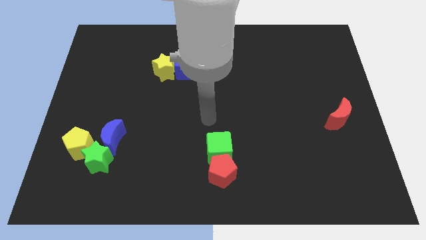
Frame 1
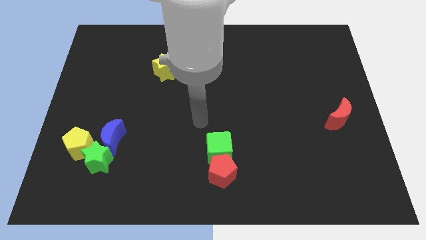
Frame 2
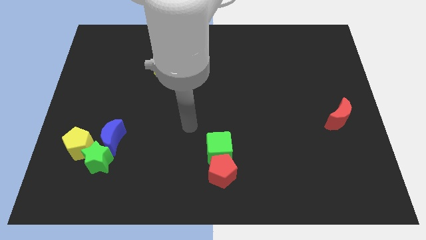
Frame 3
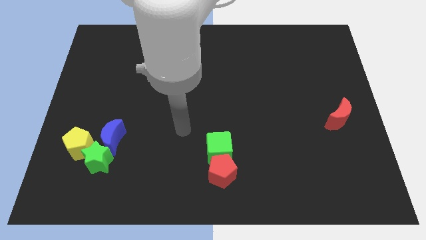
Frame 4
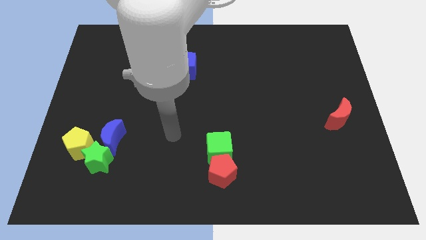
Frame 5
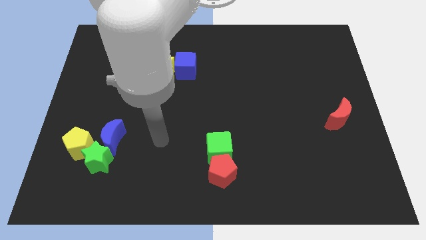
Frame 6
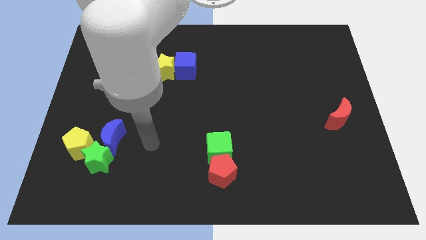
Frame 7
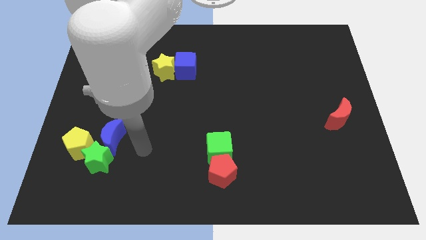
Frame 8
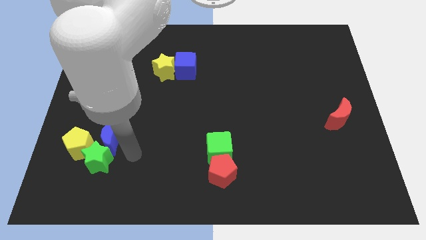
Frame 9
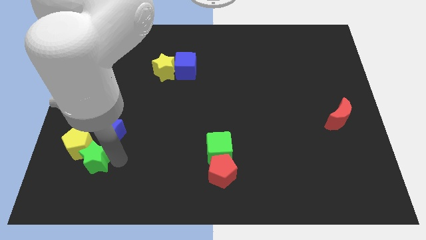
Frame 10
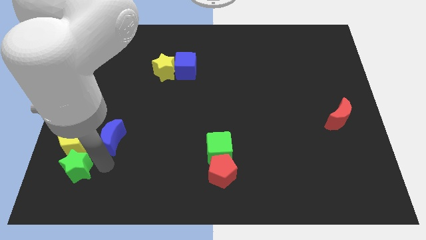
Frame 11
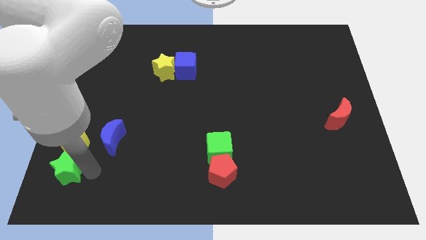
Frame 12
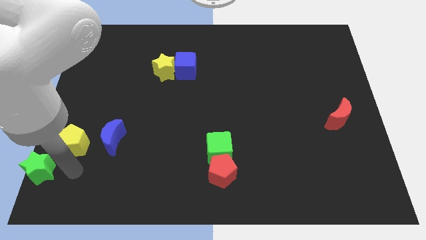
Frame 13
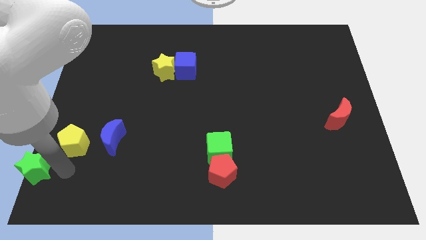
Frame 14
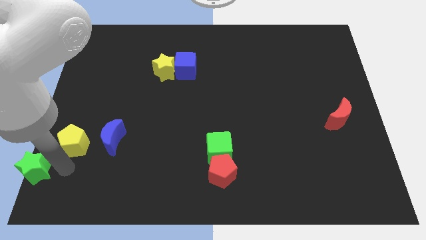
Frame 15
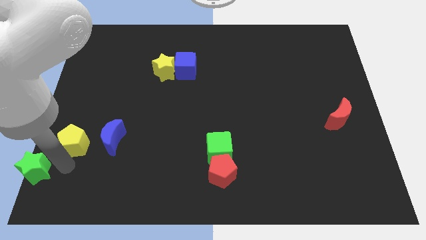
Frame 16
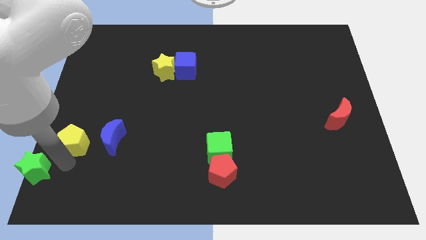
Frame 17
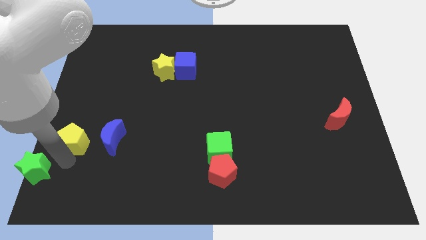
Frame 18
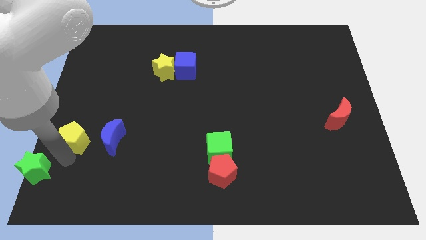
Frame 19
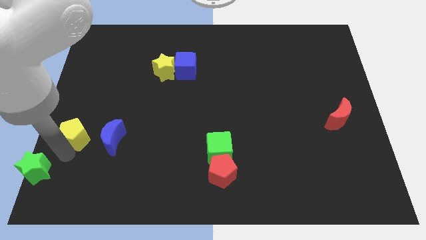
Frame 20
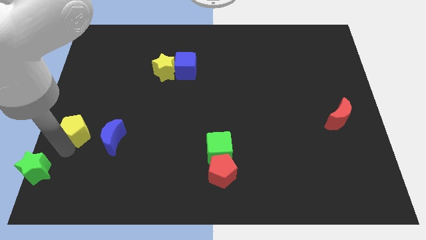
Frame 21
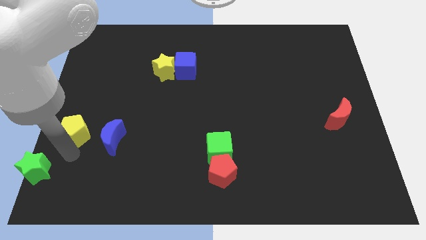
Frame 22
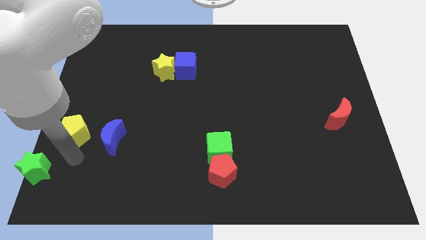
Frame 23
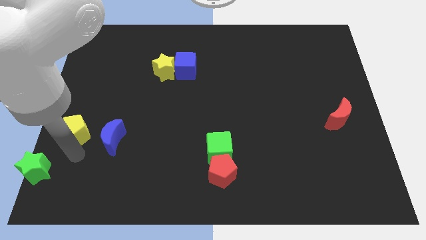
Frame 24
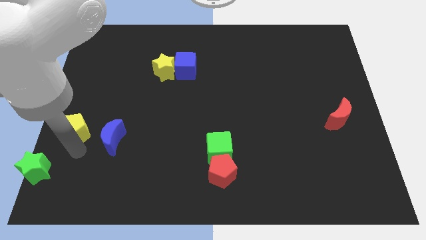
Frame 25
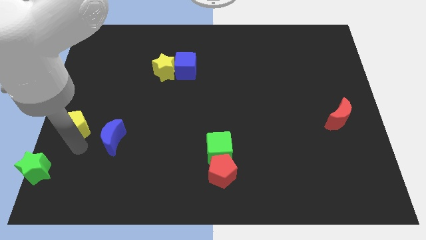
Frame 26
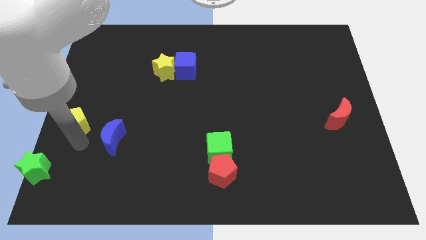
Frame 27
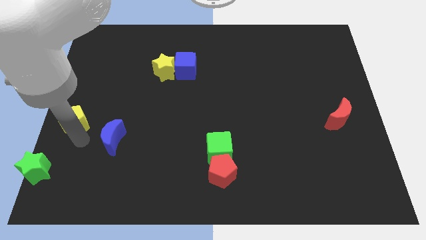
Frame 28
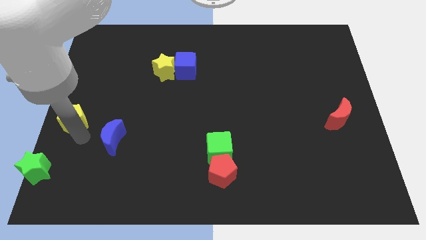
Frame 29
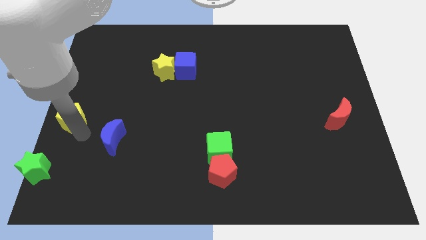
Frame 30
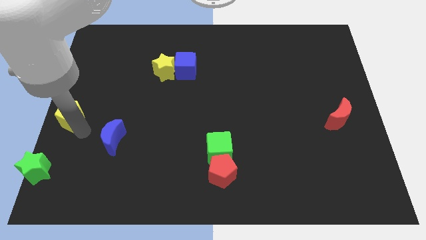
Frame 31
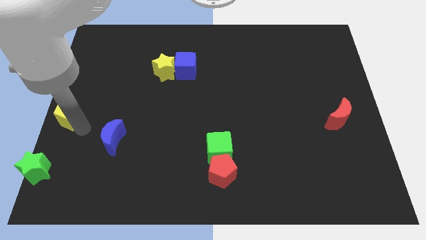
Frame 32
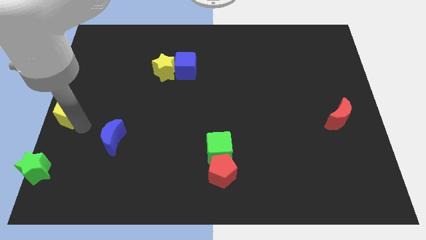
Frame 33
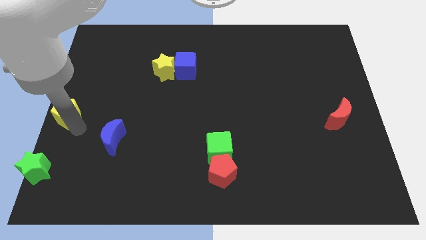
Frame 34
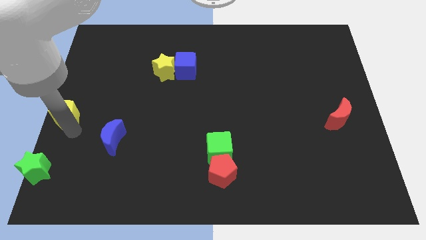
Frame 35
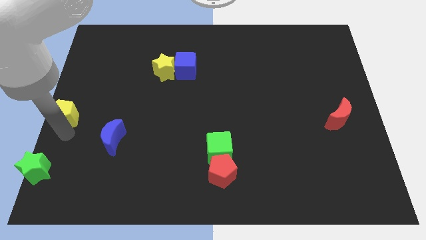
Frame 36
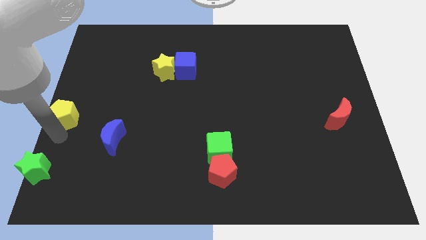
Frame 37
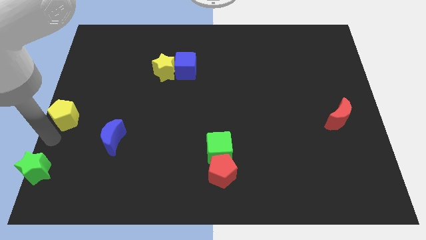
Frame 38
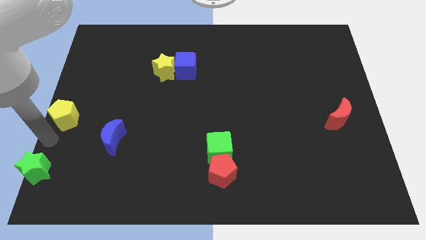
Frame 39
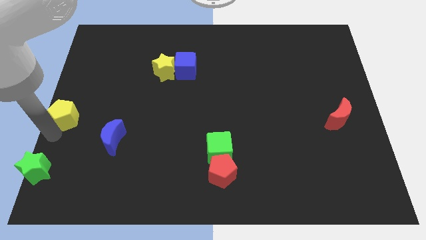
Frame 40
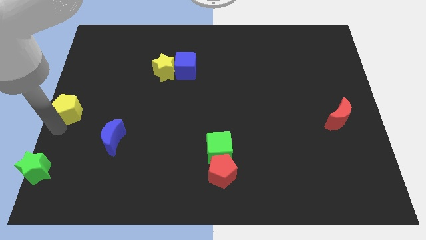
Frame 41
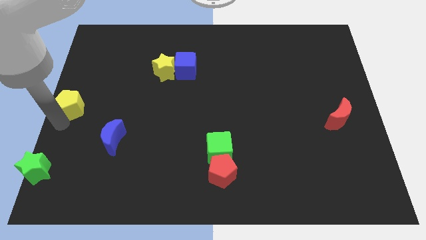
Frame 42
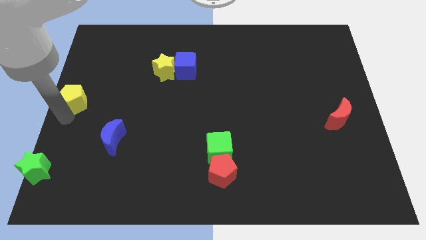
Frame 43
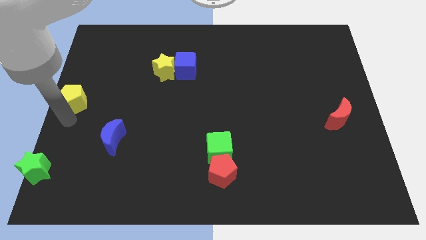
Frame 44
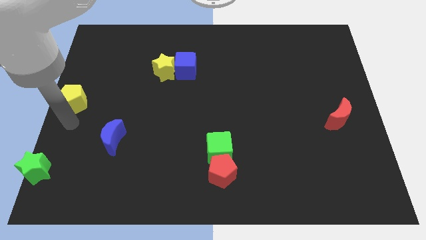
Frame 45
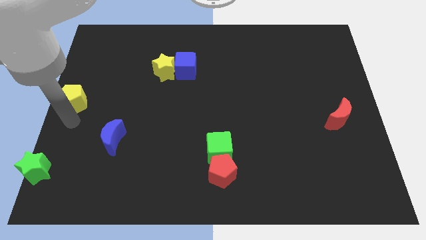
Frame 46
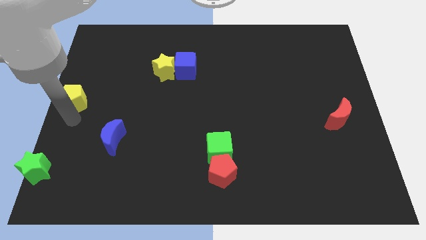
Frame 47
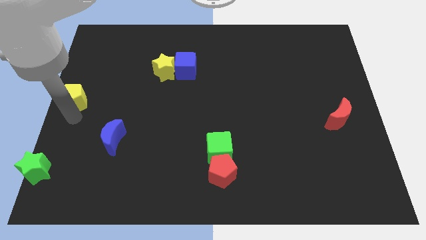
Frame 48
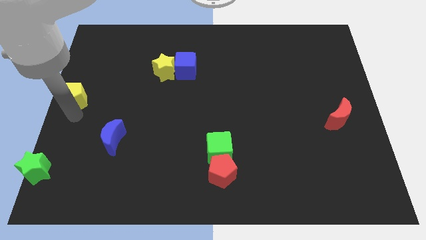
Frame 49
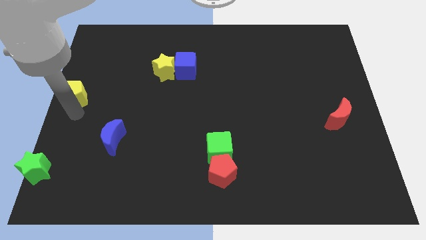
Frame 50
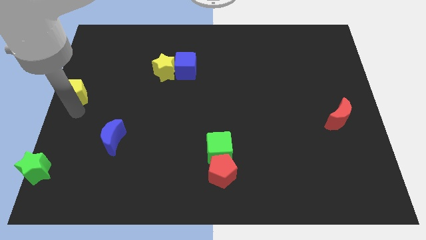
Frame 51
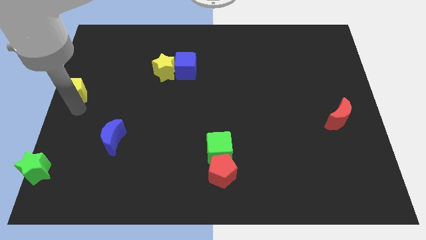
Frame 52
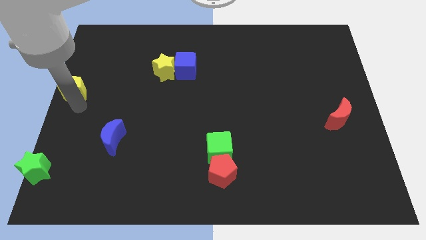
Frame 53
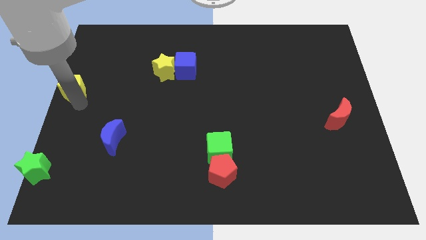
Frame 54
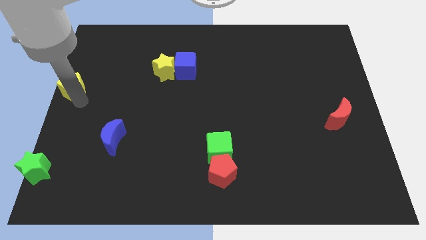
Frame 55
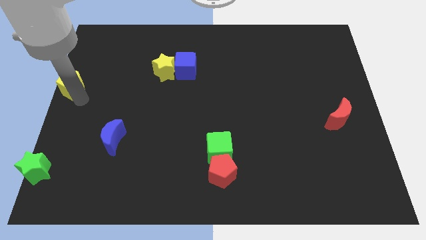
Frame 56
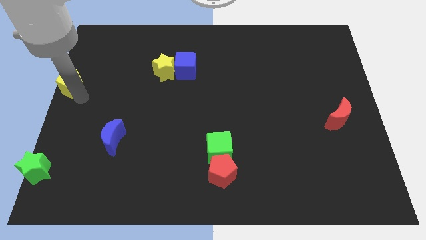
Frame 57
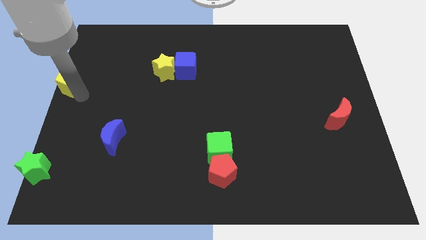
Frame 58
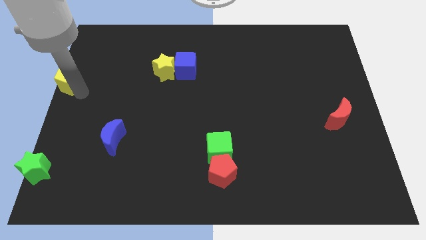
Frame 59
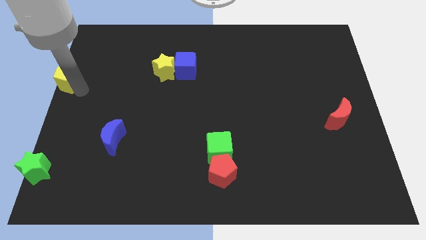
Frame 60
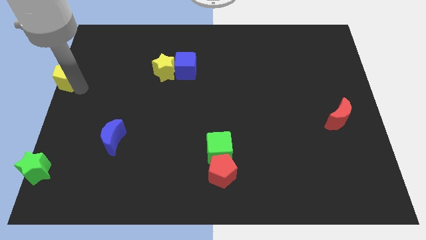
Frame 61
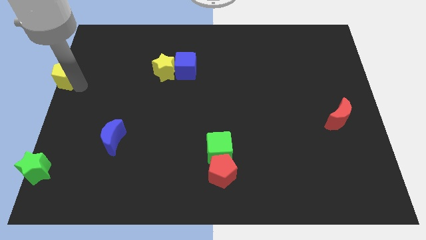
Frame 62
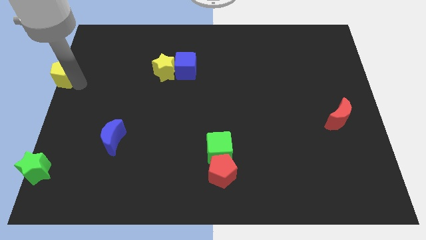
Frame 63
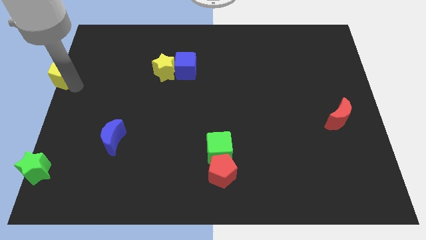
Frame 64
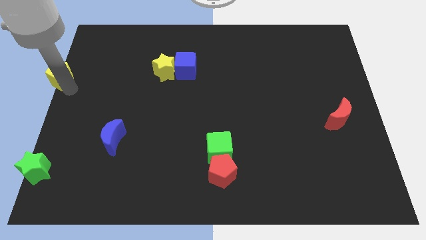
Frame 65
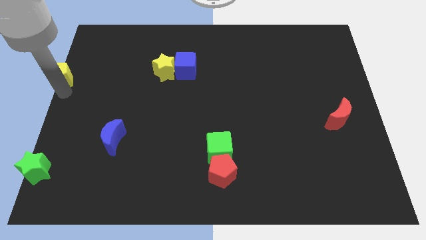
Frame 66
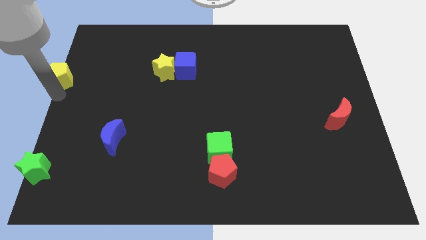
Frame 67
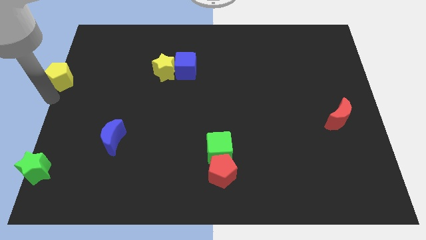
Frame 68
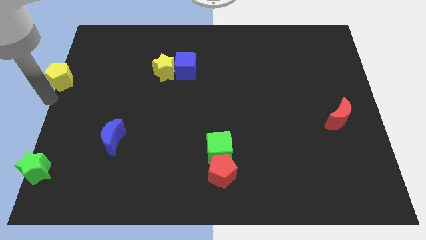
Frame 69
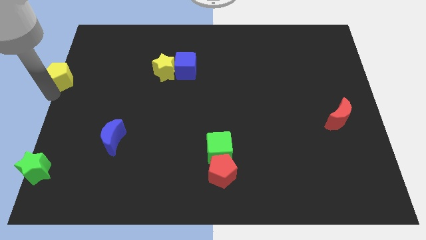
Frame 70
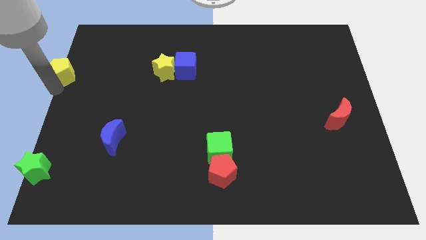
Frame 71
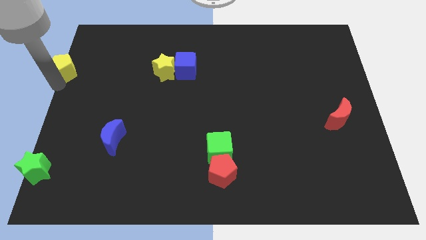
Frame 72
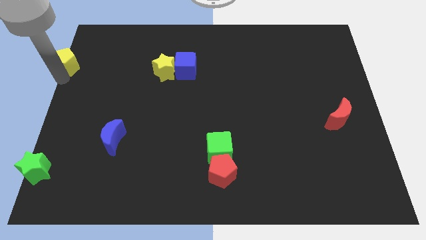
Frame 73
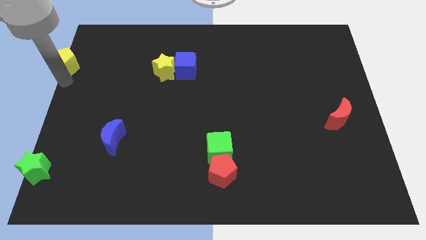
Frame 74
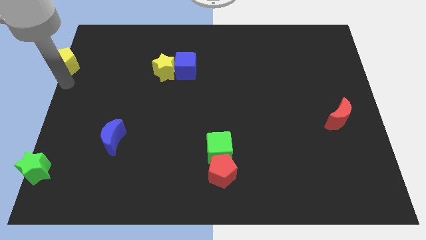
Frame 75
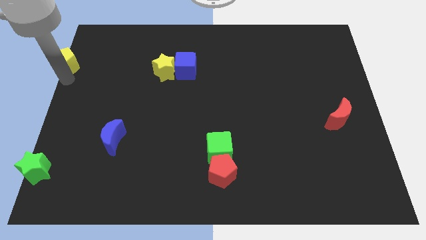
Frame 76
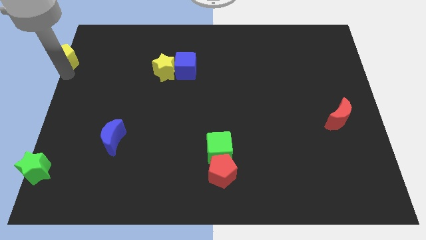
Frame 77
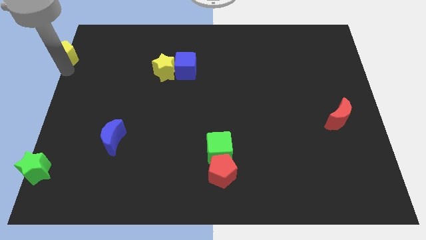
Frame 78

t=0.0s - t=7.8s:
slide the yellow pentagon to the top left
